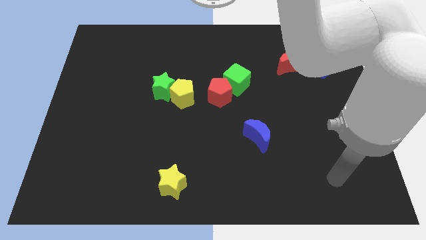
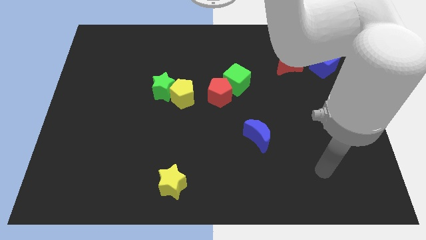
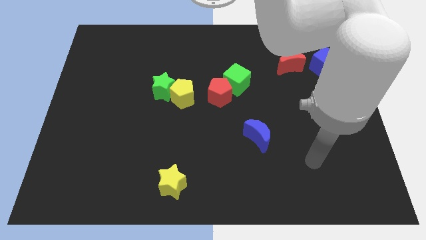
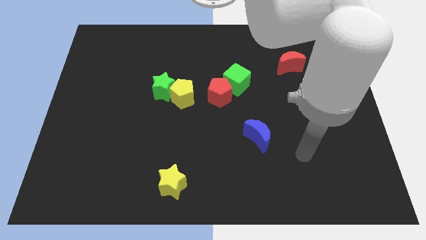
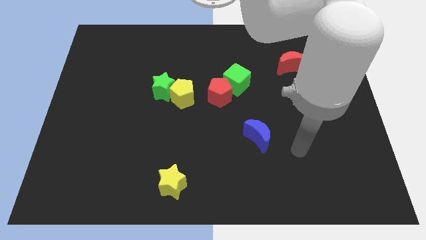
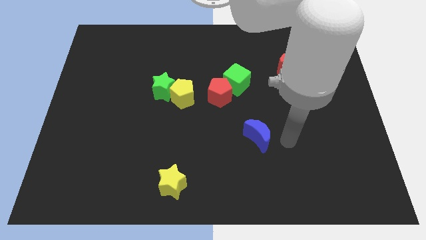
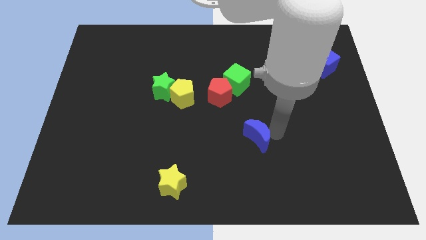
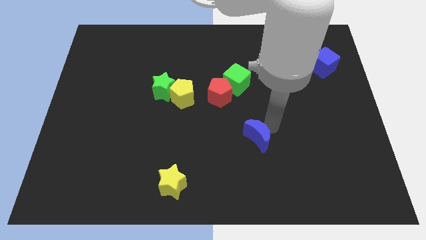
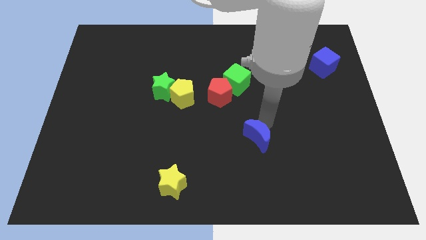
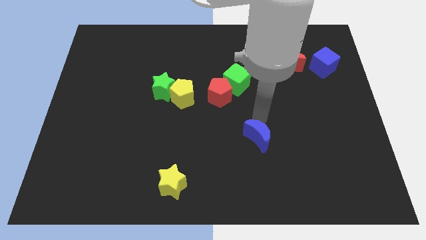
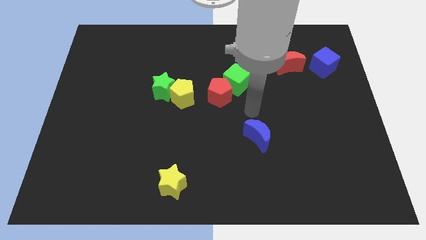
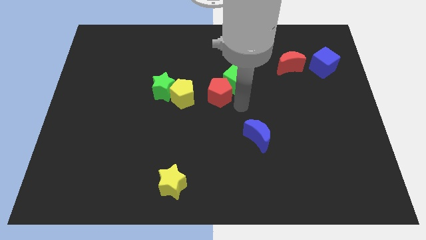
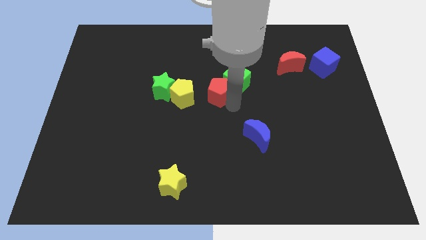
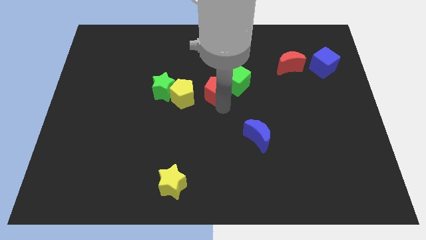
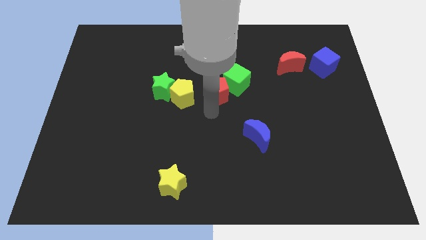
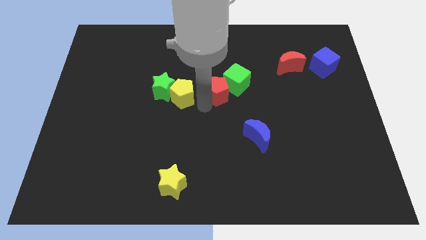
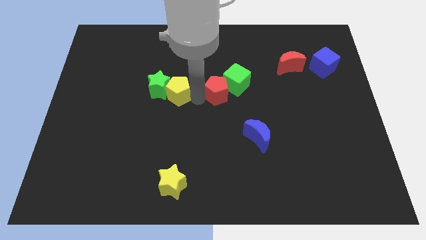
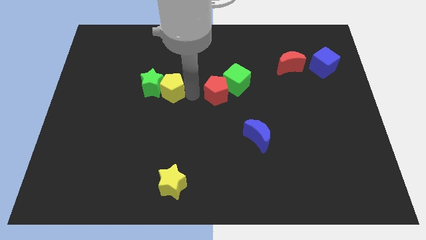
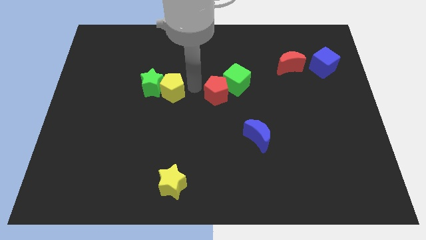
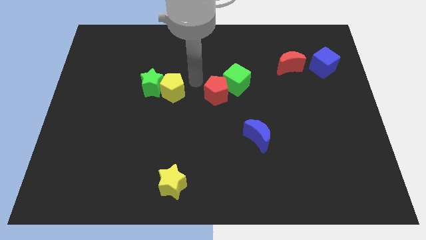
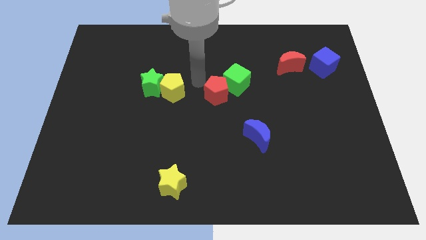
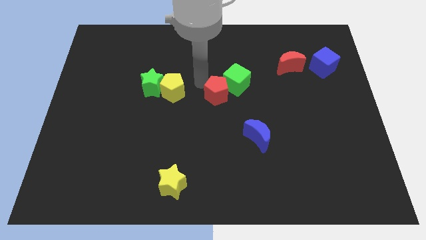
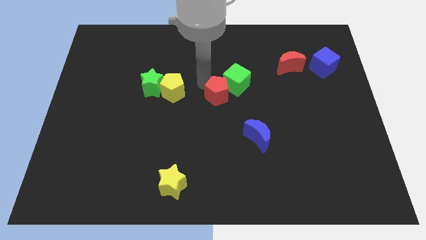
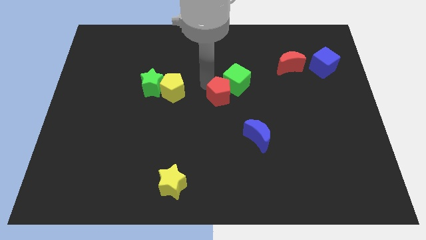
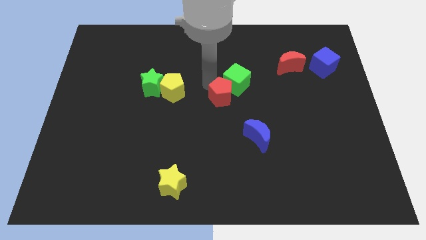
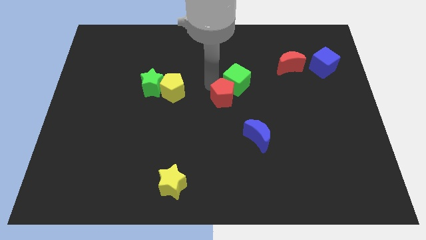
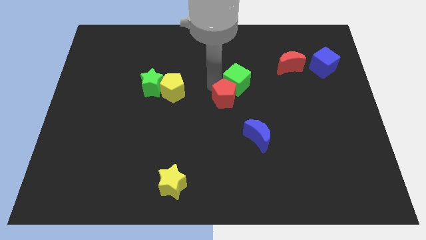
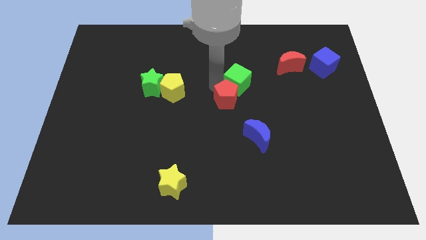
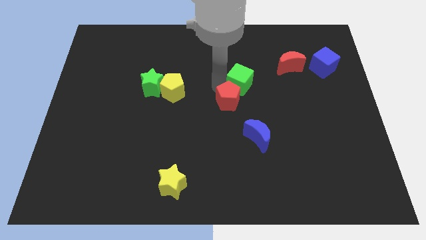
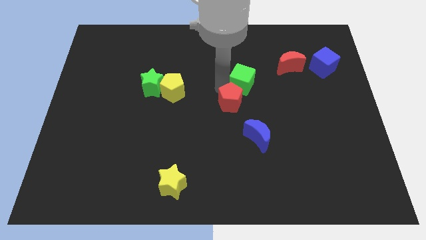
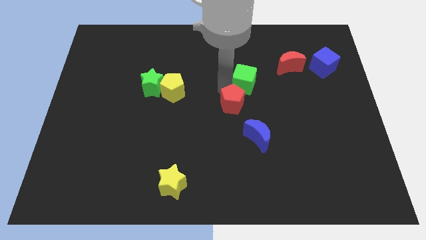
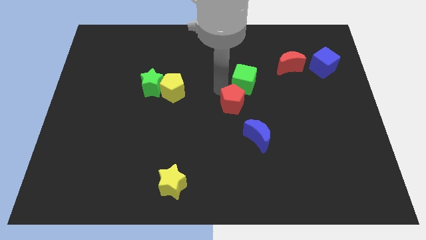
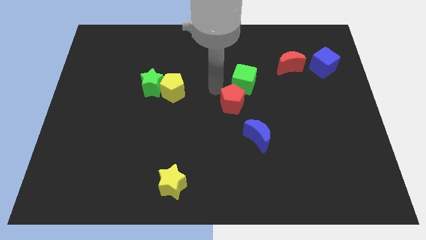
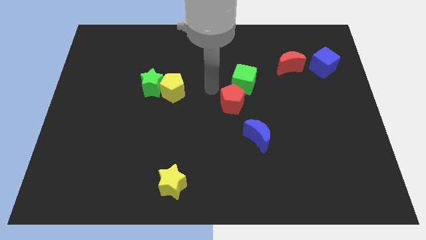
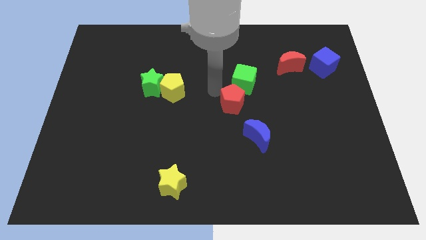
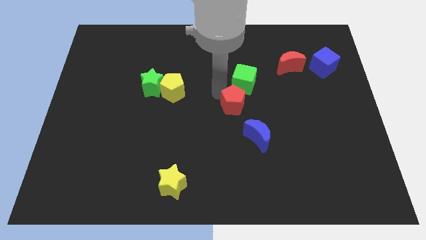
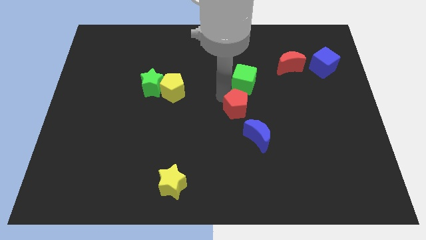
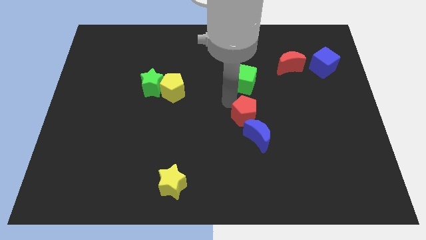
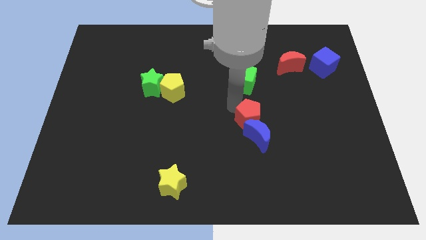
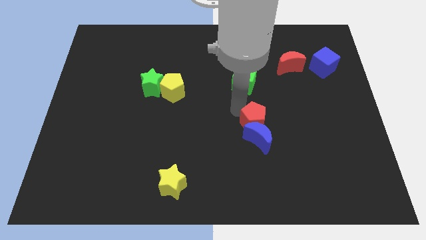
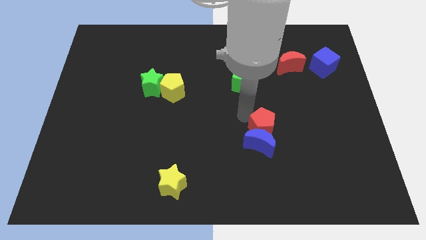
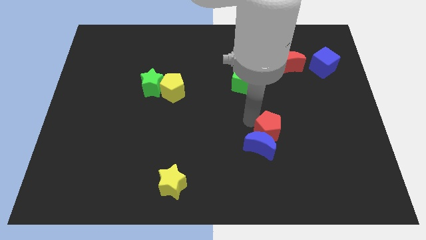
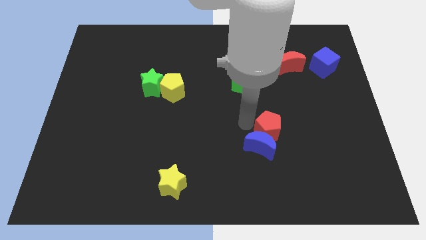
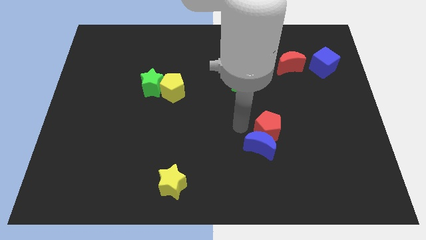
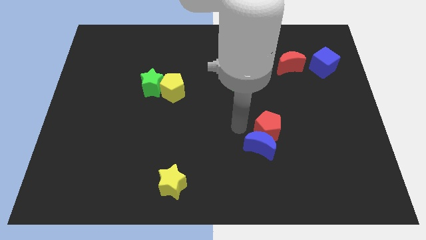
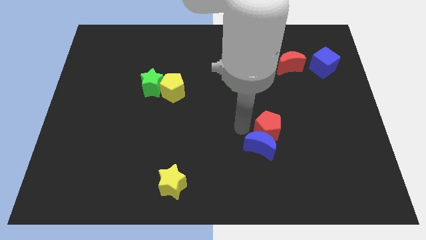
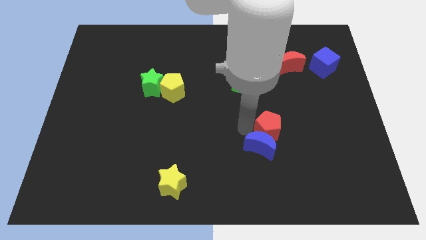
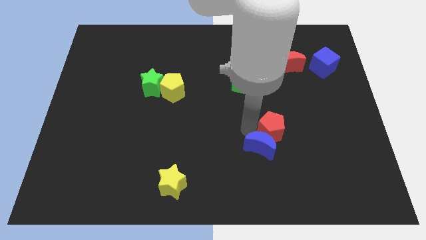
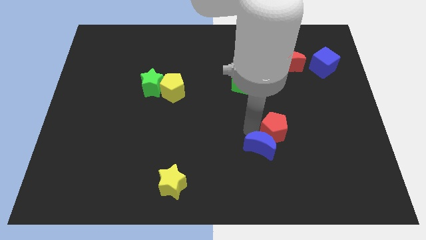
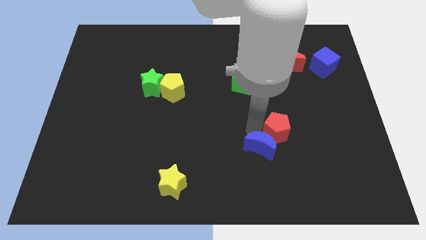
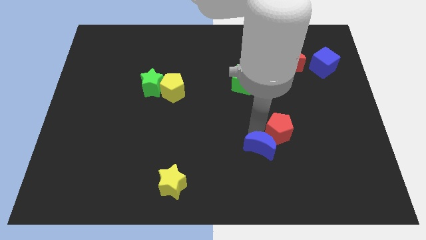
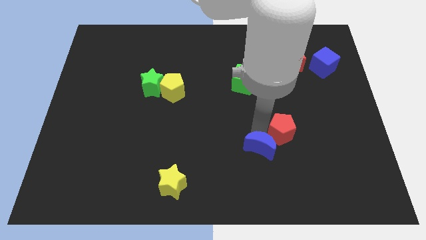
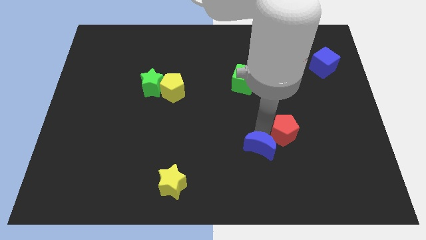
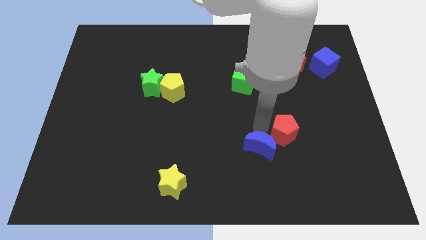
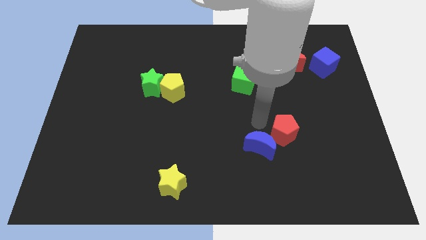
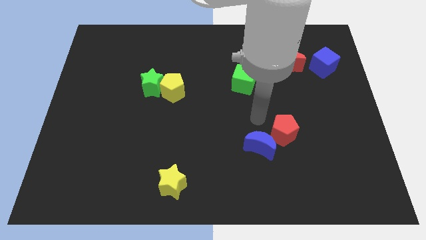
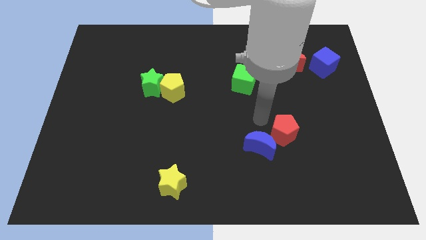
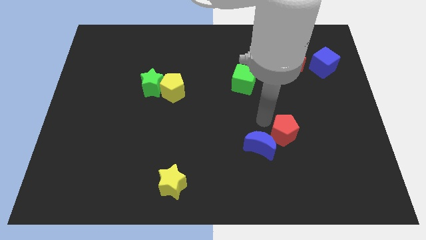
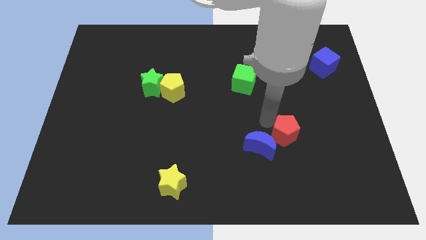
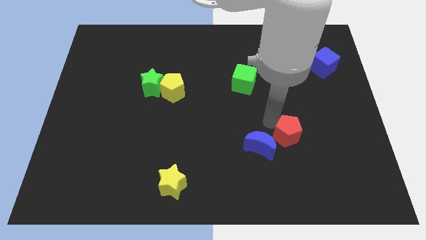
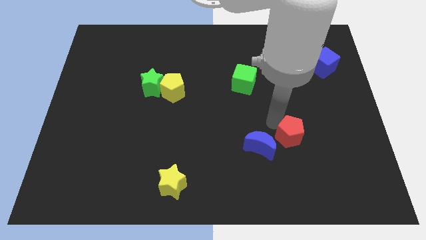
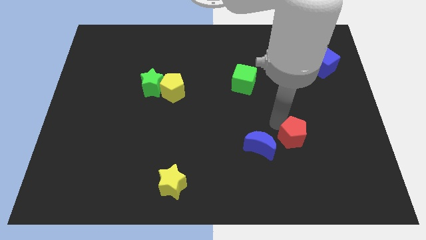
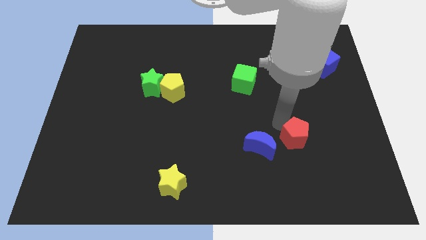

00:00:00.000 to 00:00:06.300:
push the red pentagon down and then to the right

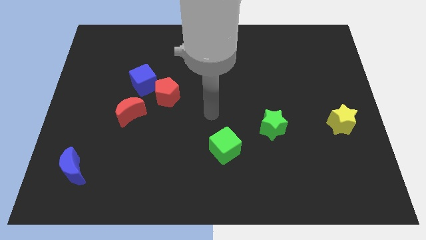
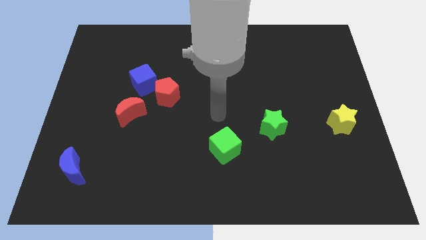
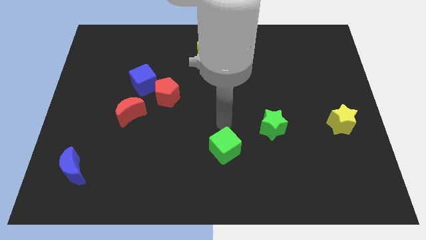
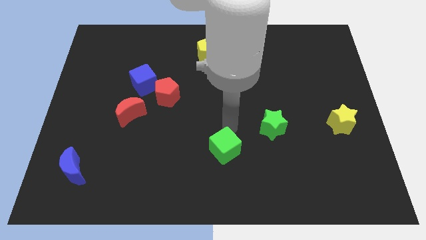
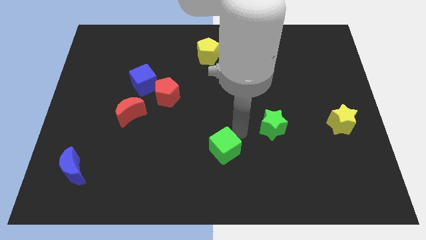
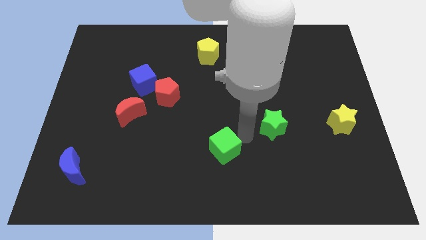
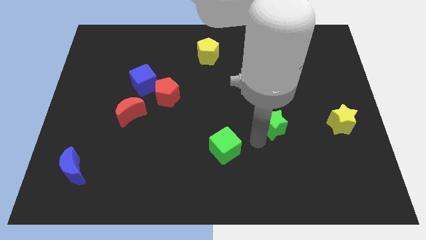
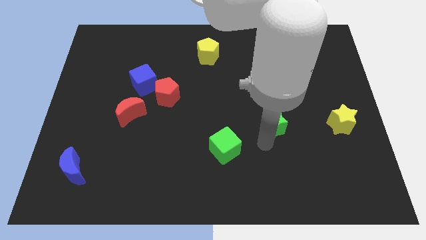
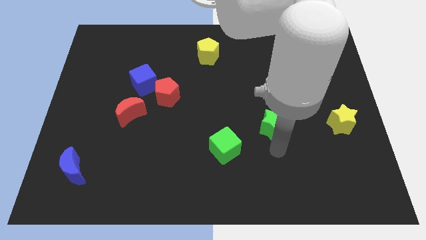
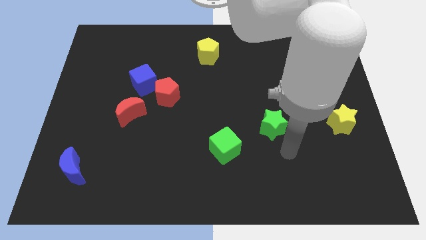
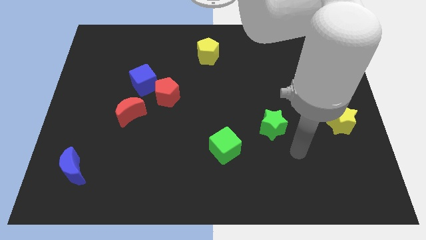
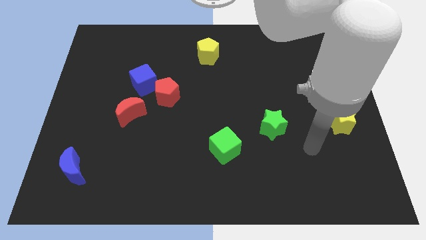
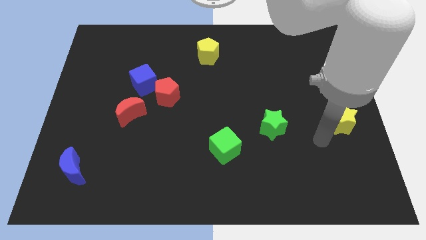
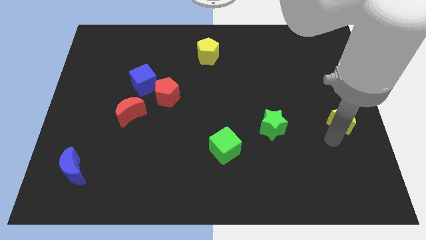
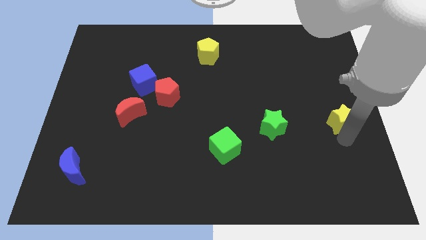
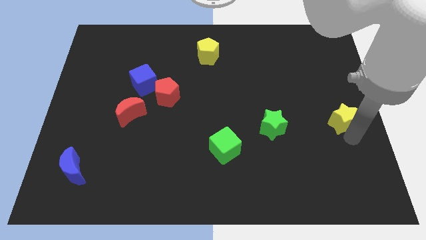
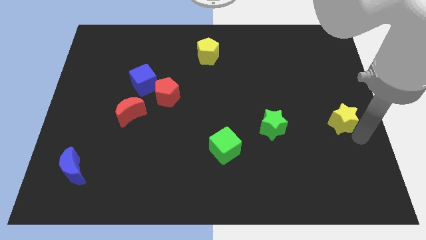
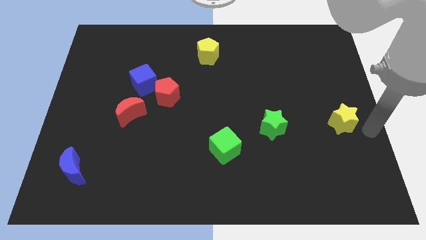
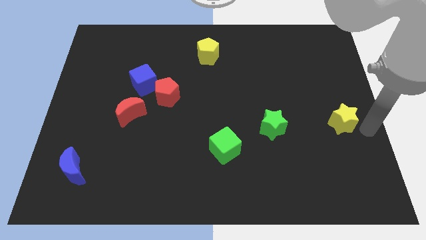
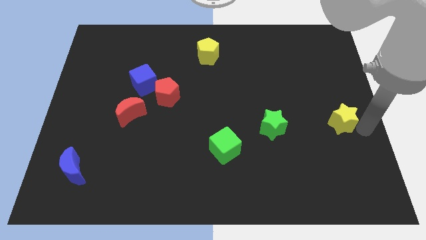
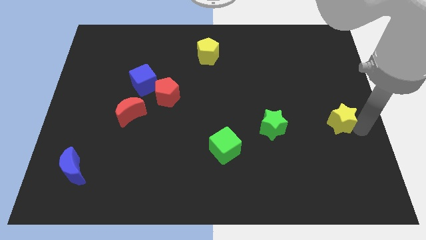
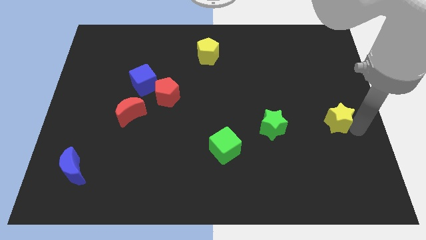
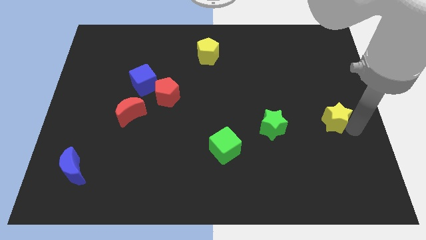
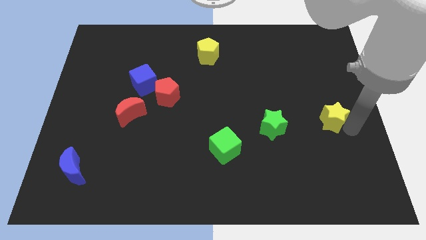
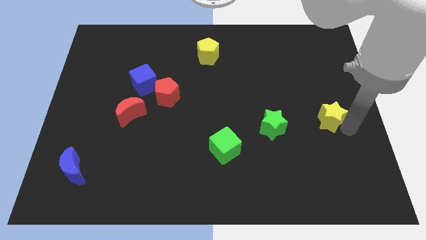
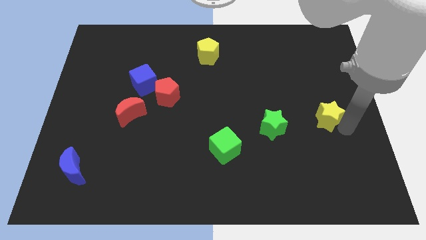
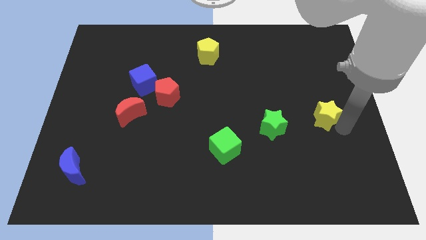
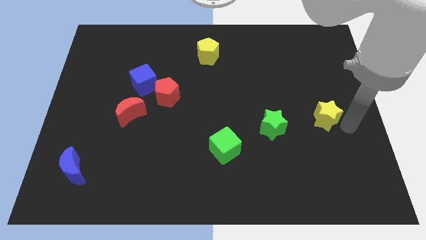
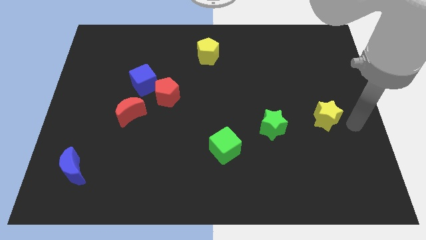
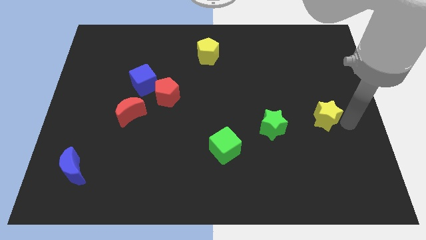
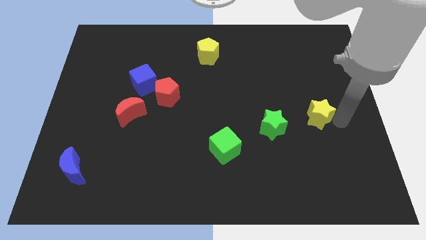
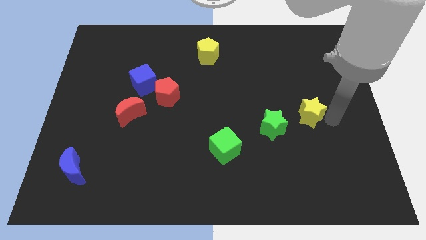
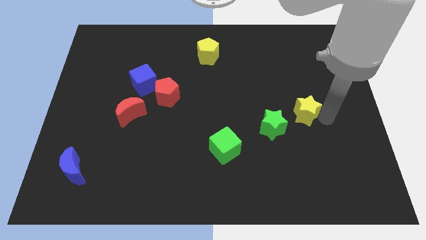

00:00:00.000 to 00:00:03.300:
push the yellow star a little bit left
